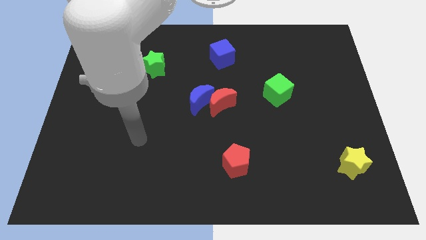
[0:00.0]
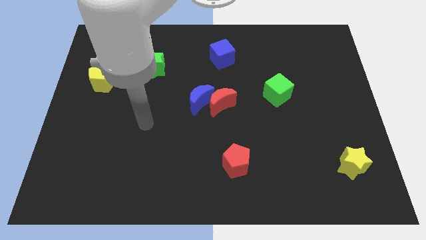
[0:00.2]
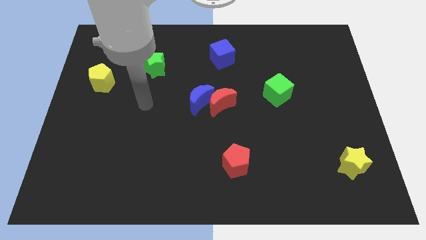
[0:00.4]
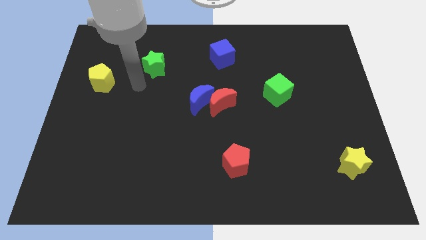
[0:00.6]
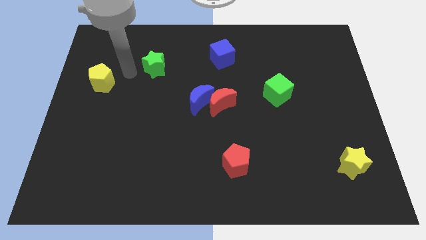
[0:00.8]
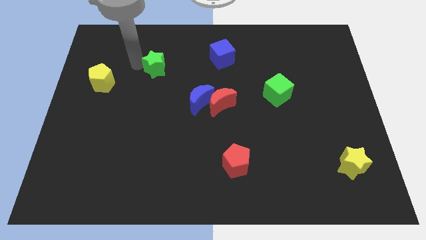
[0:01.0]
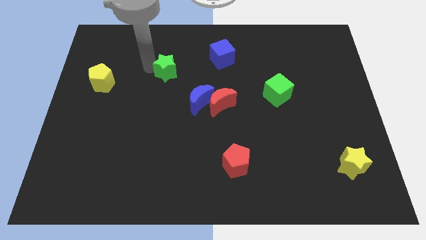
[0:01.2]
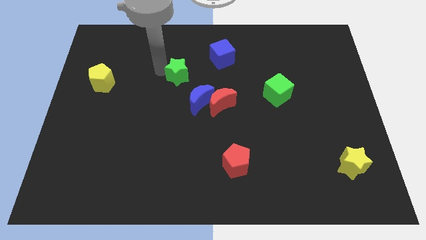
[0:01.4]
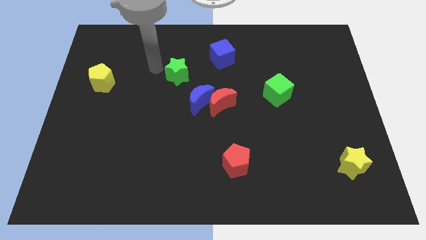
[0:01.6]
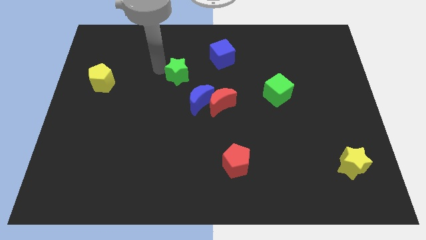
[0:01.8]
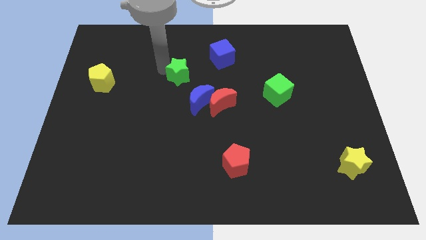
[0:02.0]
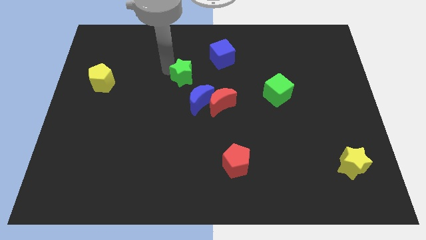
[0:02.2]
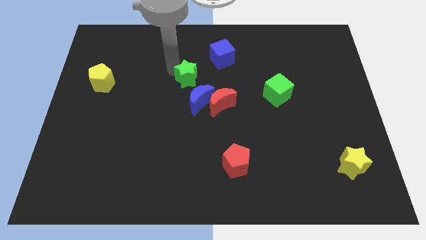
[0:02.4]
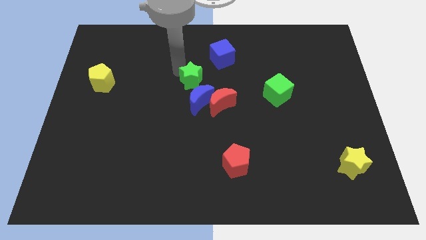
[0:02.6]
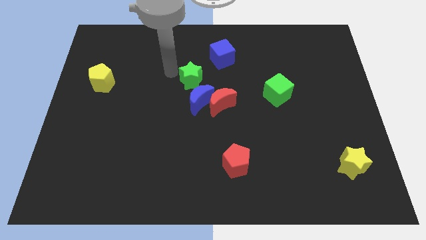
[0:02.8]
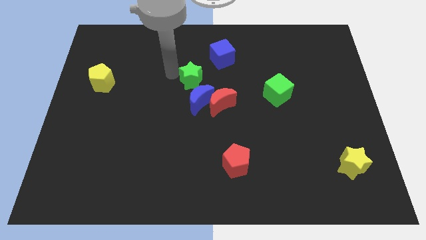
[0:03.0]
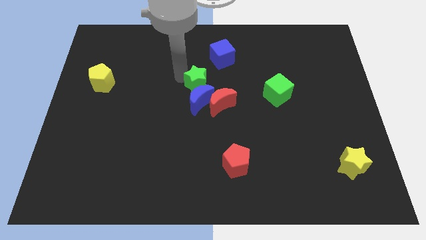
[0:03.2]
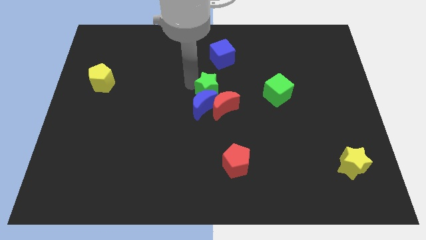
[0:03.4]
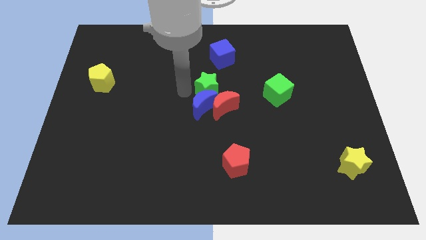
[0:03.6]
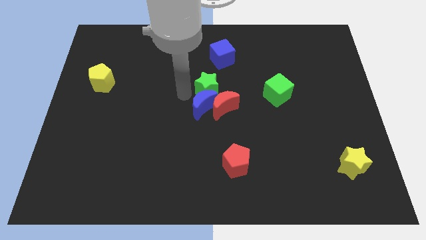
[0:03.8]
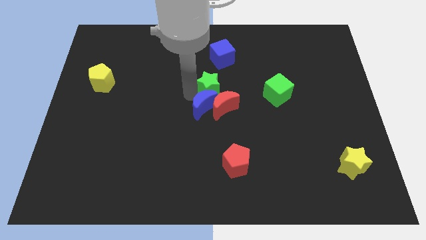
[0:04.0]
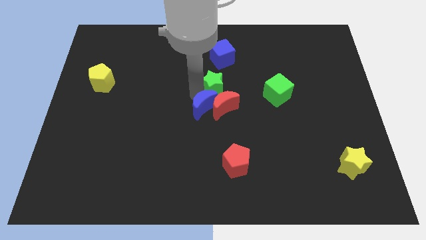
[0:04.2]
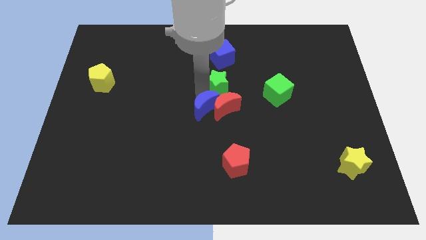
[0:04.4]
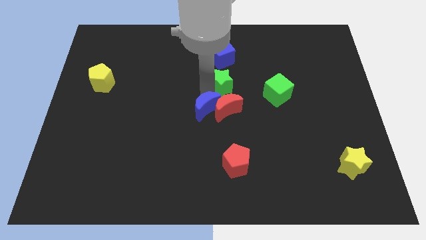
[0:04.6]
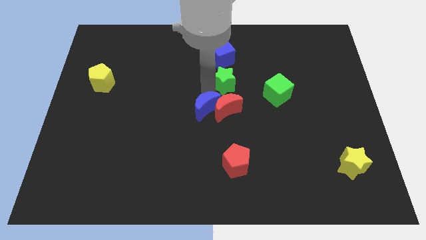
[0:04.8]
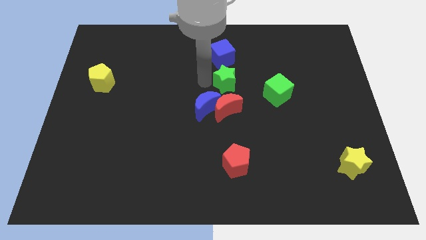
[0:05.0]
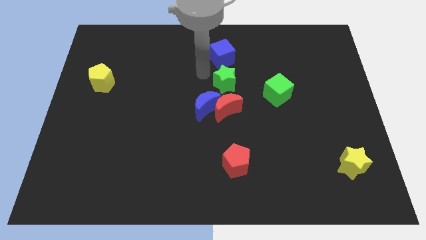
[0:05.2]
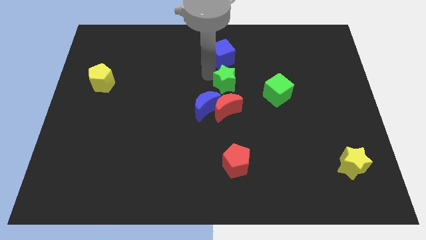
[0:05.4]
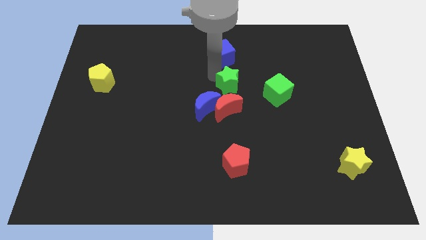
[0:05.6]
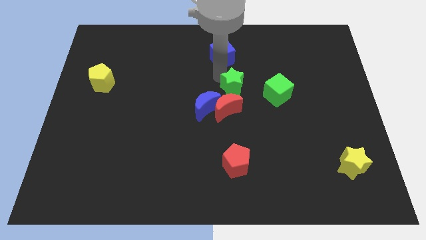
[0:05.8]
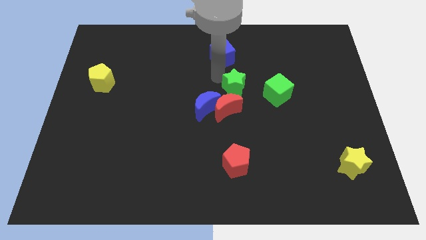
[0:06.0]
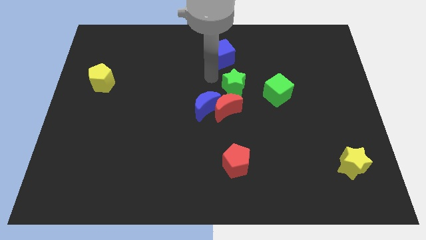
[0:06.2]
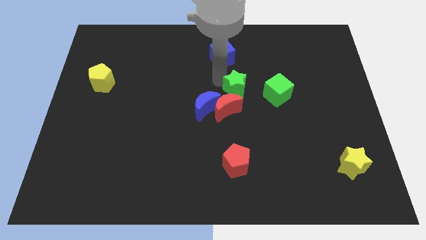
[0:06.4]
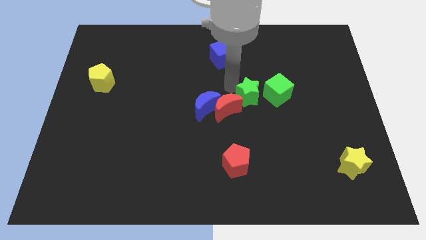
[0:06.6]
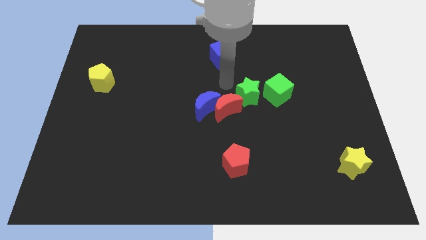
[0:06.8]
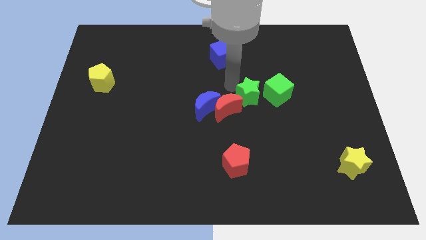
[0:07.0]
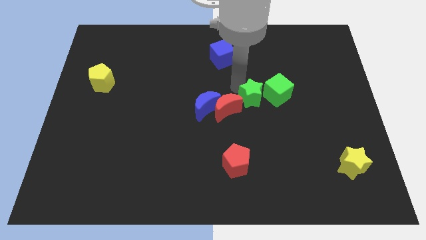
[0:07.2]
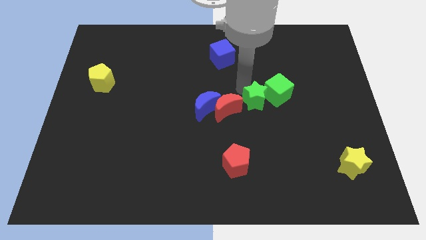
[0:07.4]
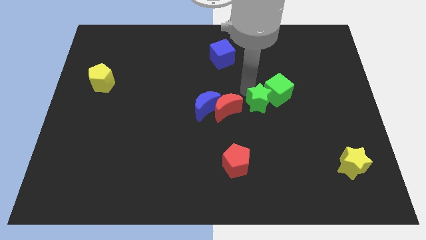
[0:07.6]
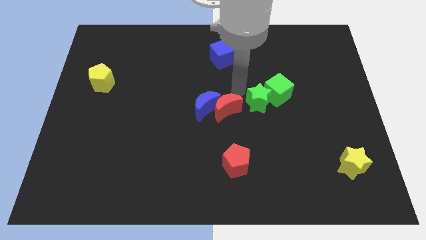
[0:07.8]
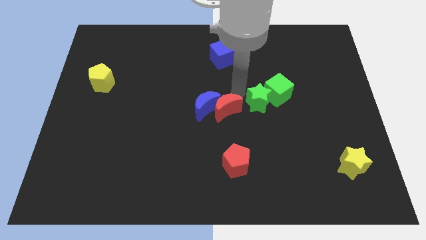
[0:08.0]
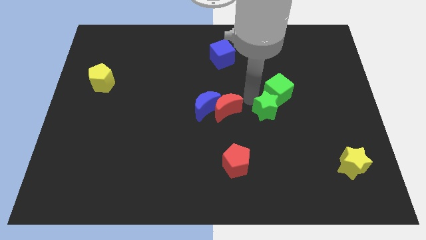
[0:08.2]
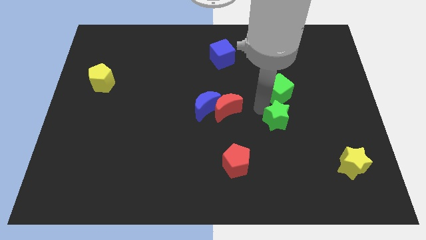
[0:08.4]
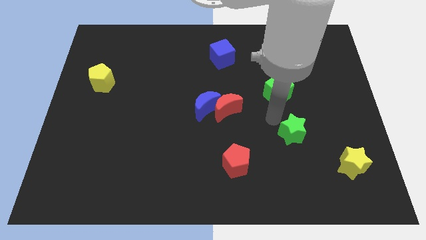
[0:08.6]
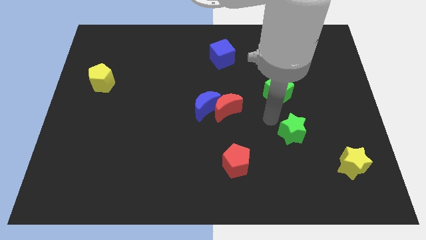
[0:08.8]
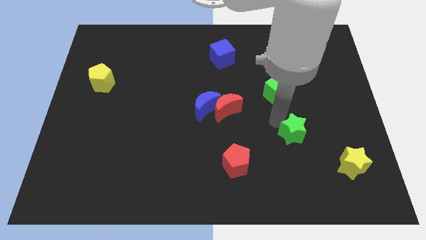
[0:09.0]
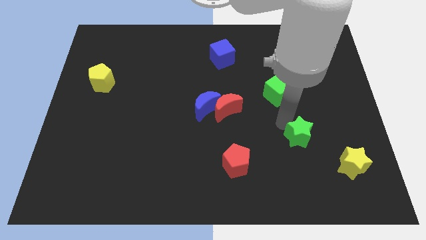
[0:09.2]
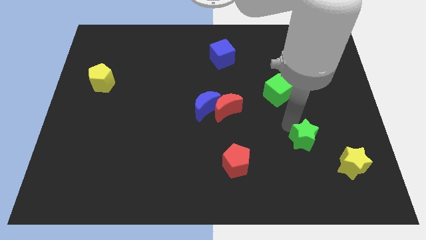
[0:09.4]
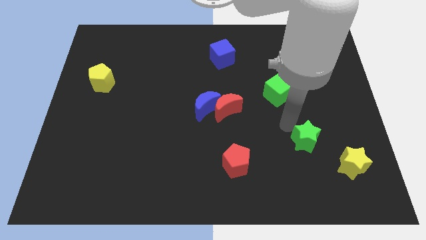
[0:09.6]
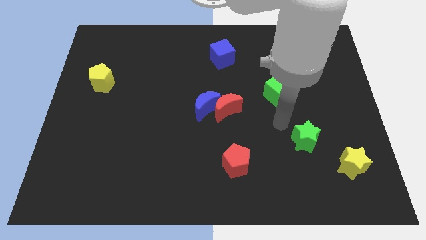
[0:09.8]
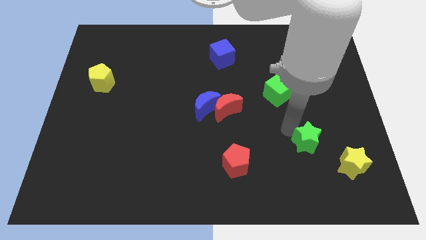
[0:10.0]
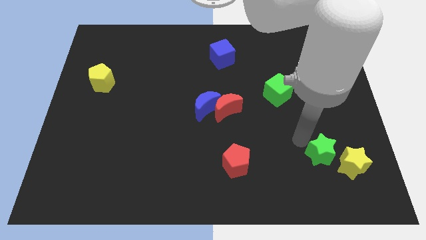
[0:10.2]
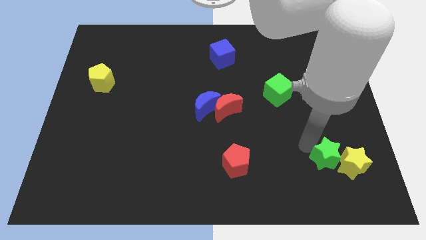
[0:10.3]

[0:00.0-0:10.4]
push the green star towards the yellow star

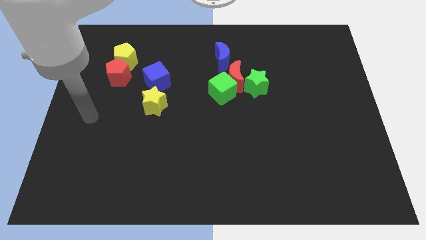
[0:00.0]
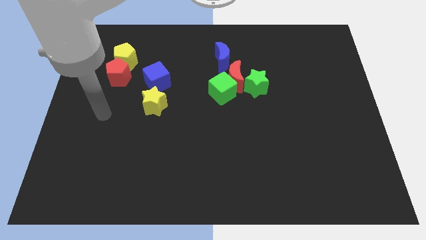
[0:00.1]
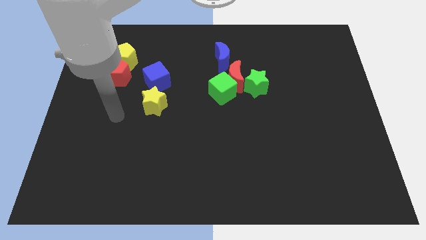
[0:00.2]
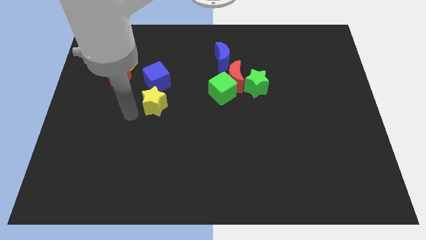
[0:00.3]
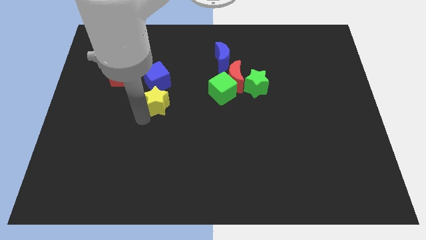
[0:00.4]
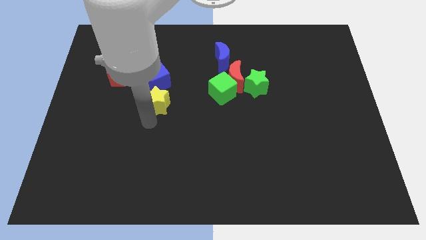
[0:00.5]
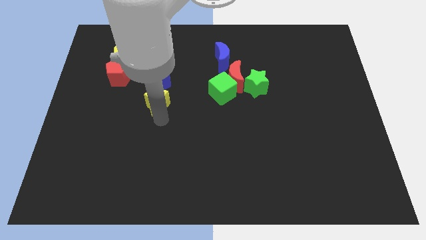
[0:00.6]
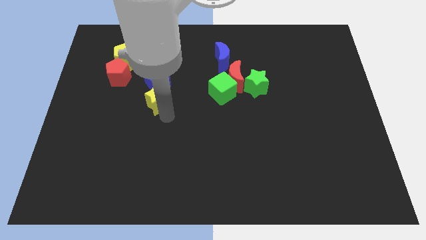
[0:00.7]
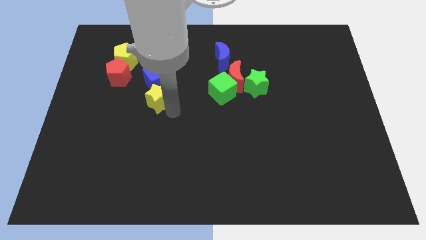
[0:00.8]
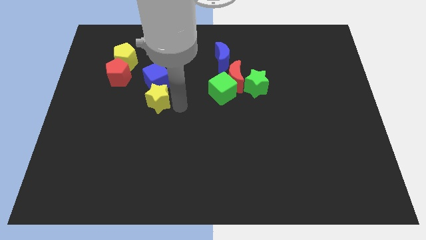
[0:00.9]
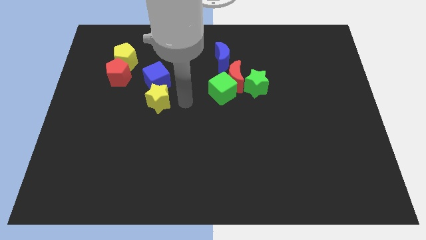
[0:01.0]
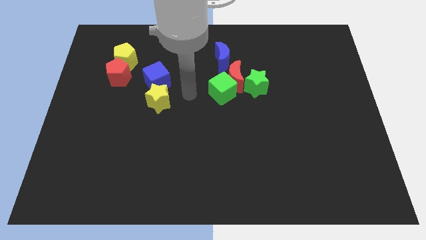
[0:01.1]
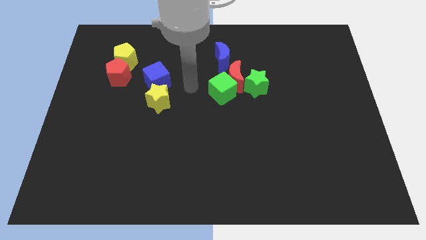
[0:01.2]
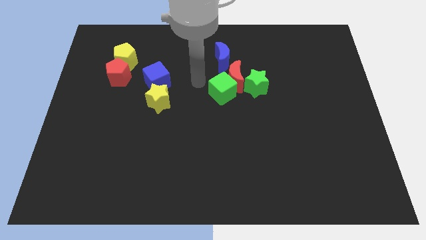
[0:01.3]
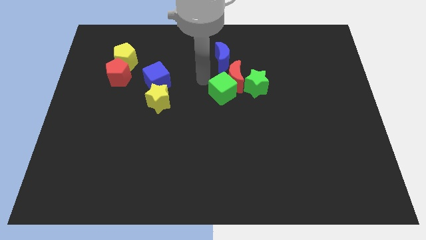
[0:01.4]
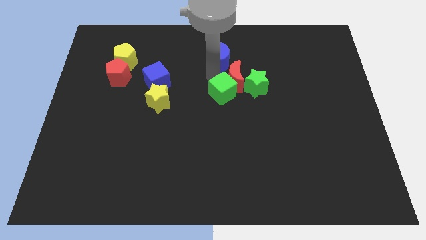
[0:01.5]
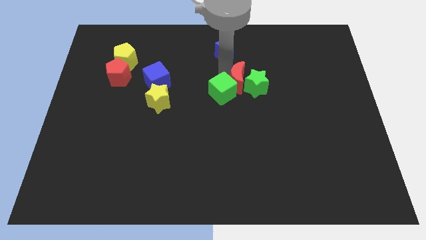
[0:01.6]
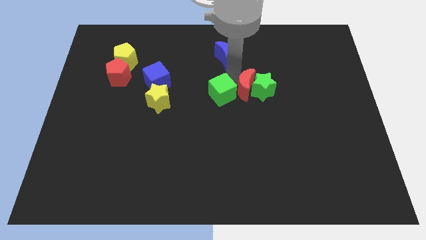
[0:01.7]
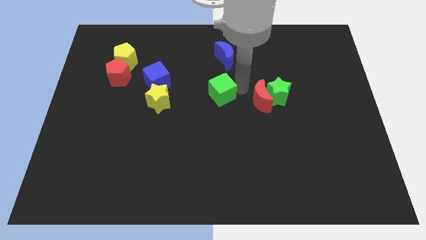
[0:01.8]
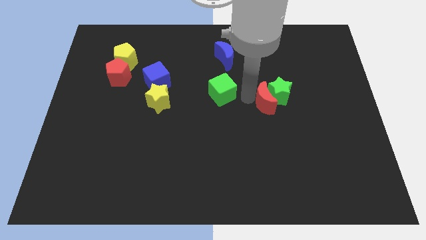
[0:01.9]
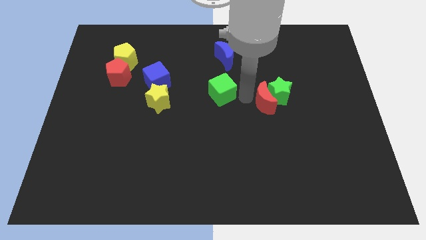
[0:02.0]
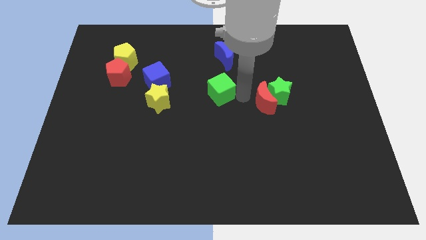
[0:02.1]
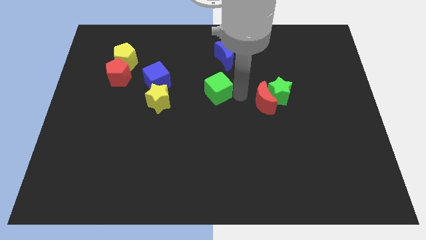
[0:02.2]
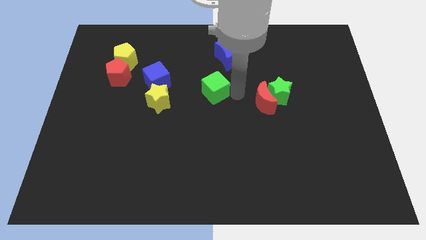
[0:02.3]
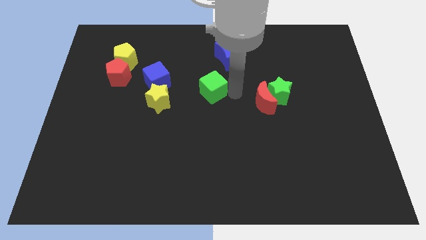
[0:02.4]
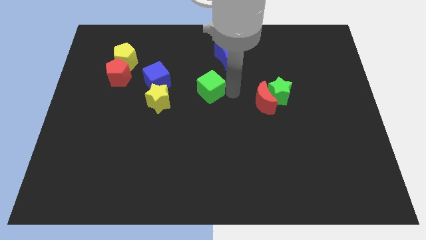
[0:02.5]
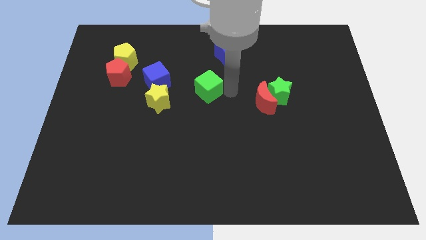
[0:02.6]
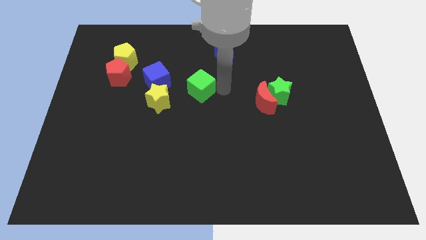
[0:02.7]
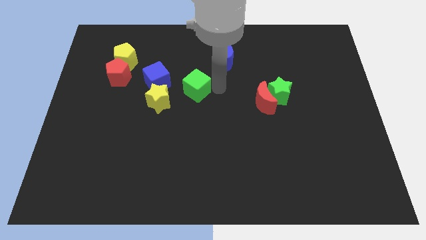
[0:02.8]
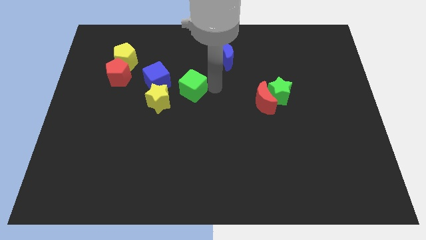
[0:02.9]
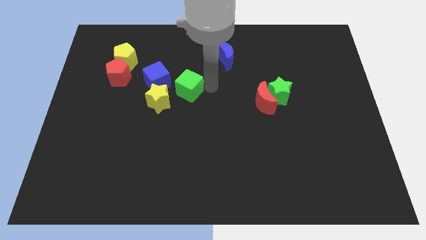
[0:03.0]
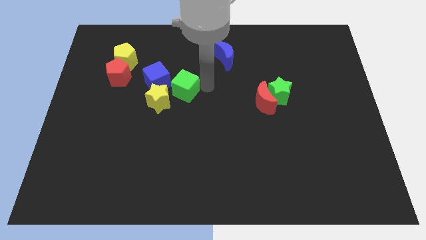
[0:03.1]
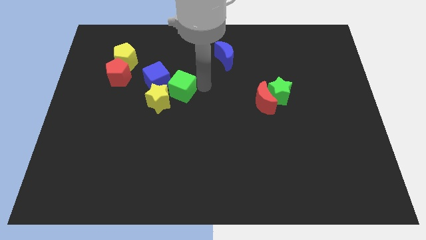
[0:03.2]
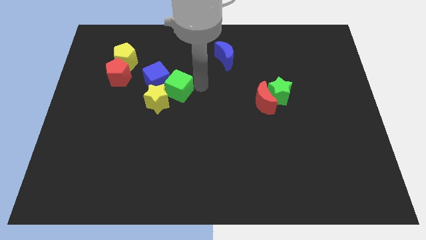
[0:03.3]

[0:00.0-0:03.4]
slide the green cube towards the blue cube
